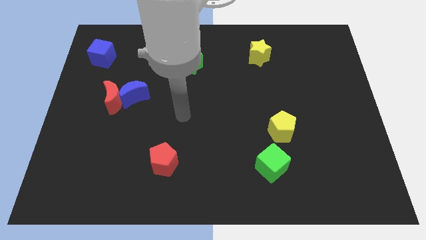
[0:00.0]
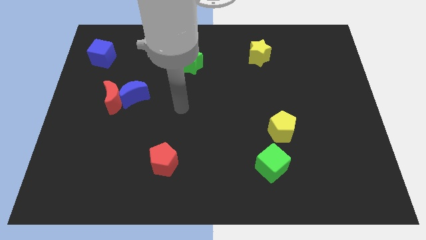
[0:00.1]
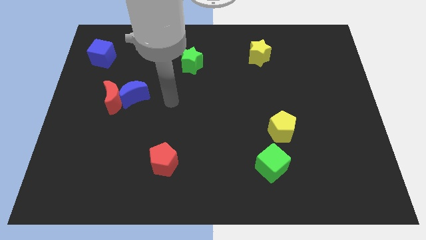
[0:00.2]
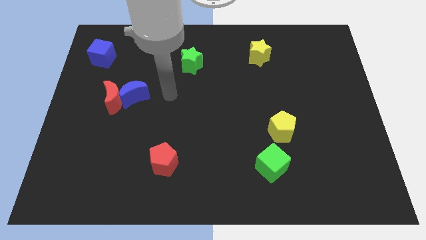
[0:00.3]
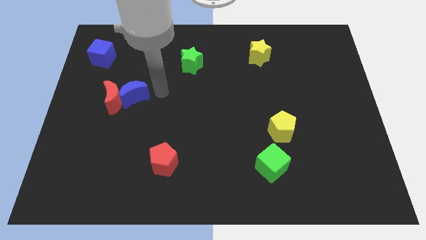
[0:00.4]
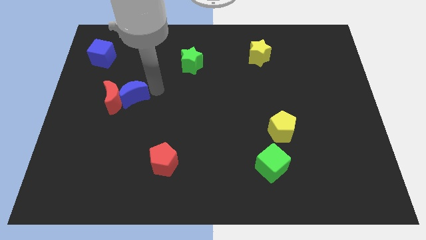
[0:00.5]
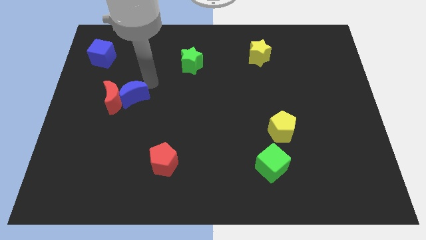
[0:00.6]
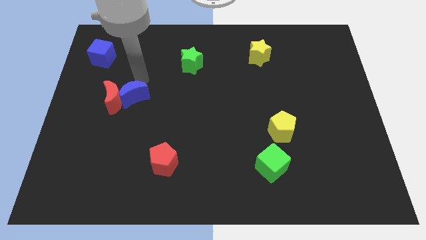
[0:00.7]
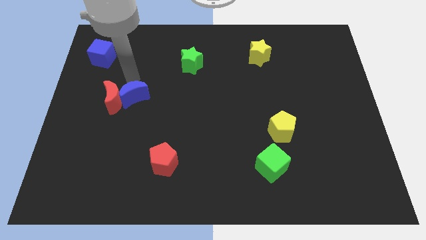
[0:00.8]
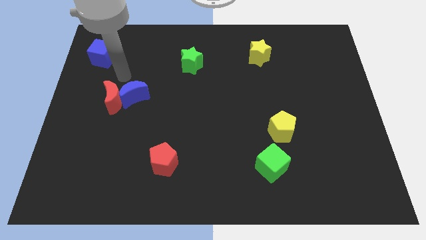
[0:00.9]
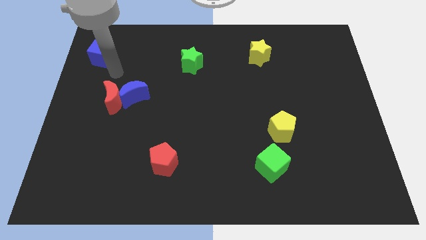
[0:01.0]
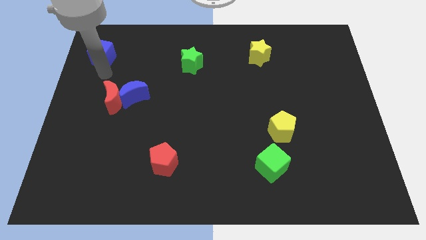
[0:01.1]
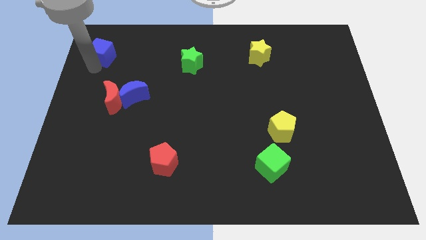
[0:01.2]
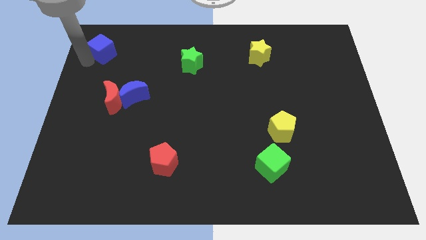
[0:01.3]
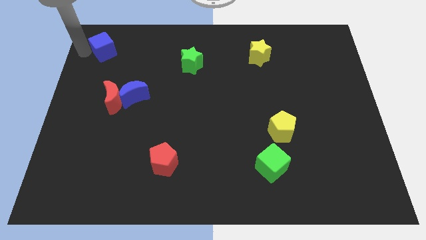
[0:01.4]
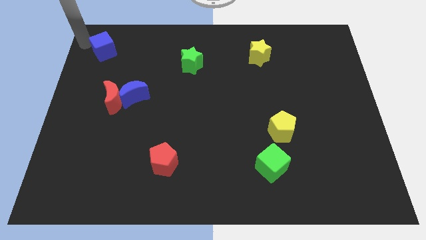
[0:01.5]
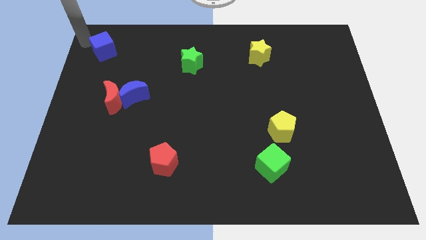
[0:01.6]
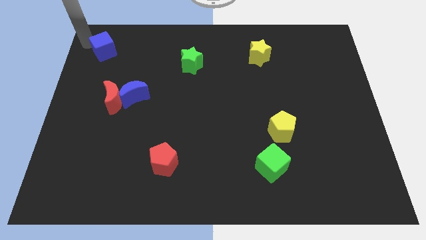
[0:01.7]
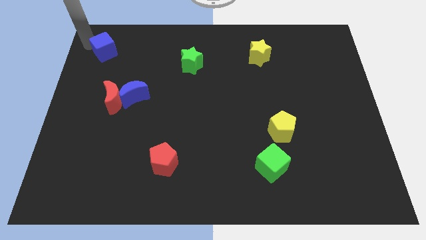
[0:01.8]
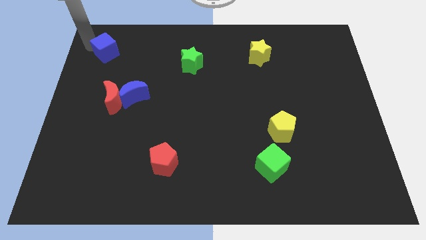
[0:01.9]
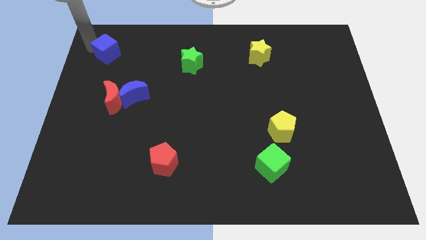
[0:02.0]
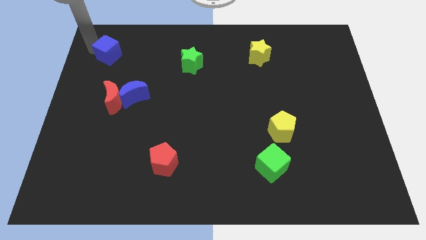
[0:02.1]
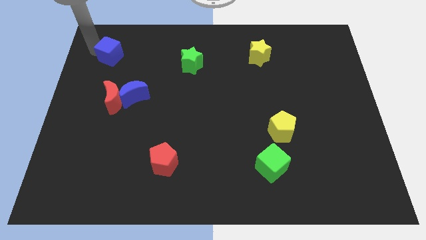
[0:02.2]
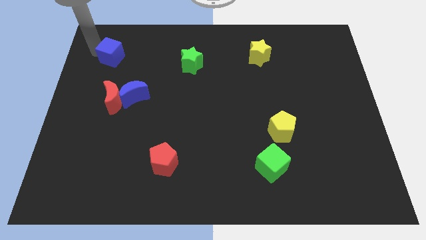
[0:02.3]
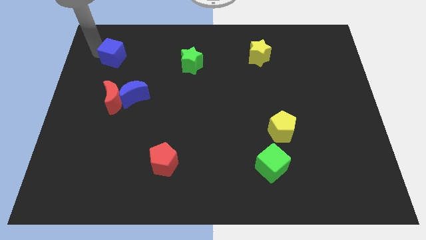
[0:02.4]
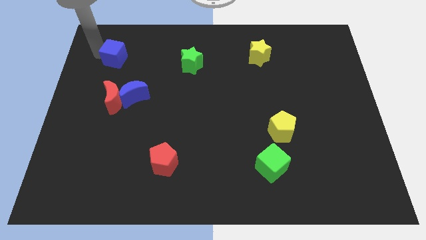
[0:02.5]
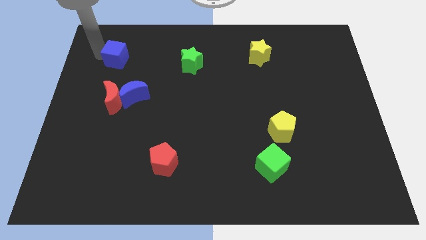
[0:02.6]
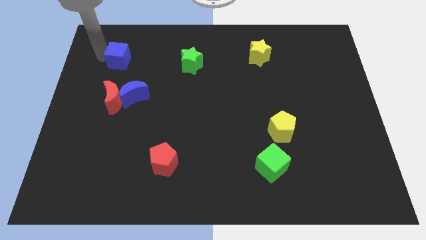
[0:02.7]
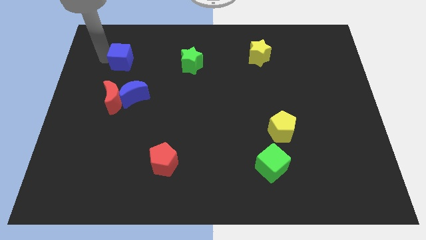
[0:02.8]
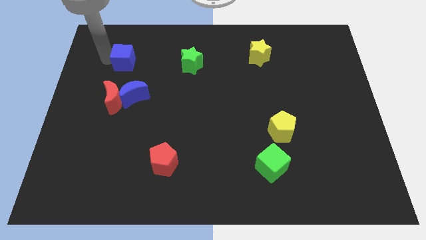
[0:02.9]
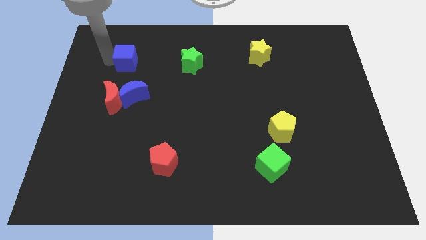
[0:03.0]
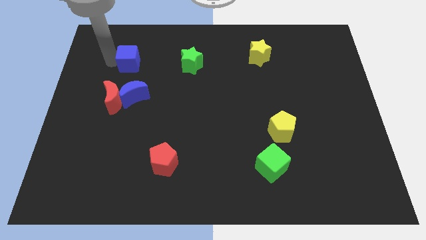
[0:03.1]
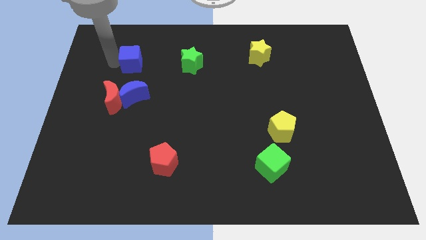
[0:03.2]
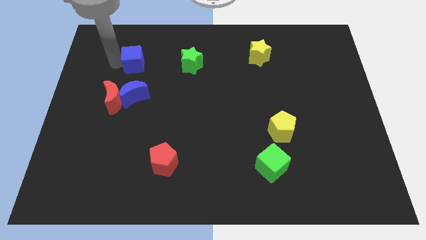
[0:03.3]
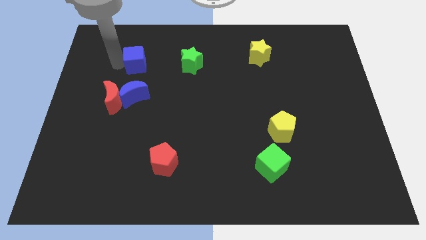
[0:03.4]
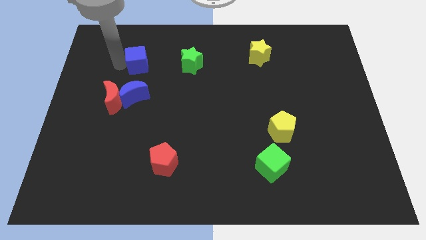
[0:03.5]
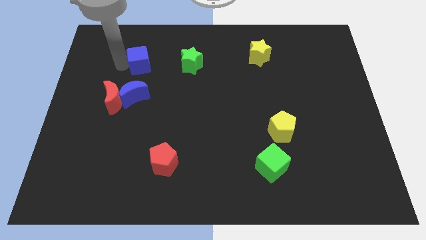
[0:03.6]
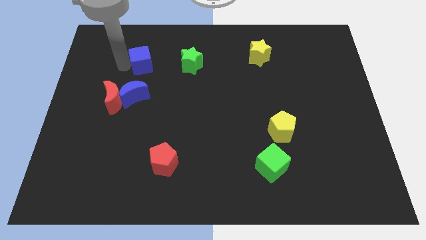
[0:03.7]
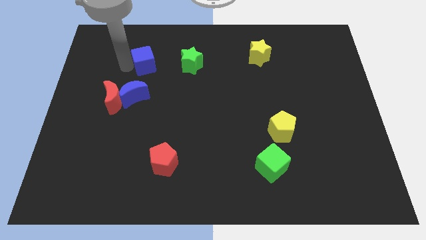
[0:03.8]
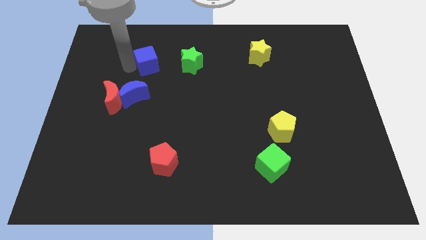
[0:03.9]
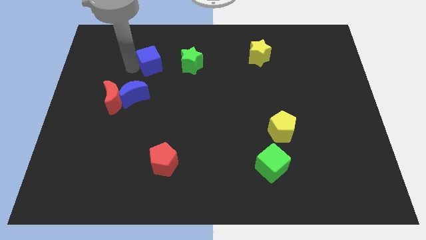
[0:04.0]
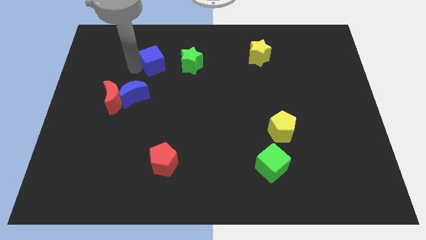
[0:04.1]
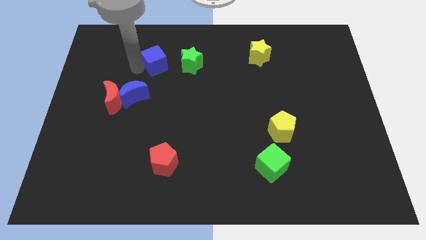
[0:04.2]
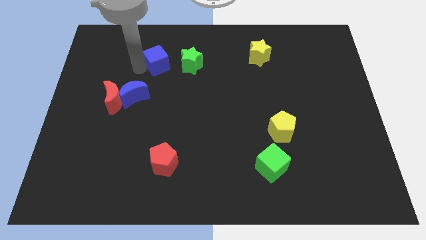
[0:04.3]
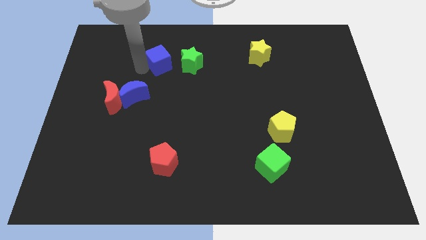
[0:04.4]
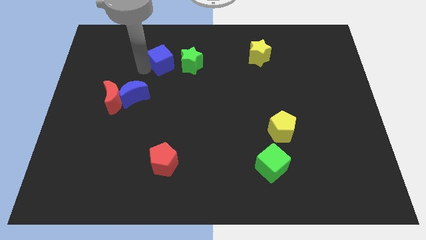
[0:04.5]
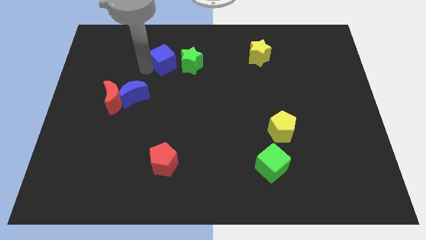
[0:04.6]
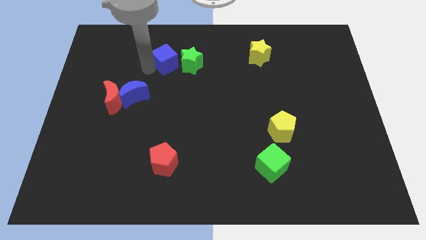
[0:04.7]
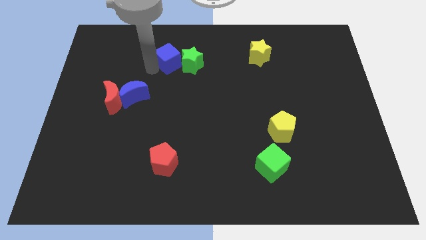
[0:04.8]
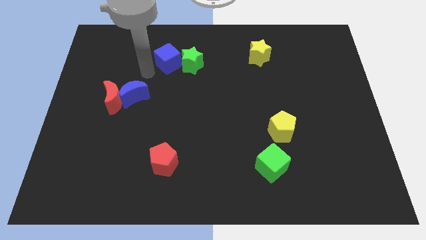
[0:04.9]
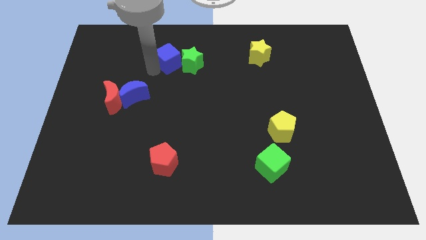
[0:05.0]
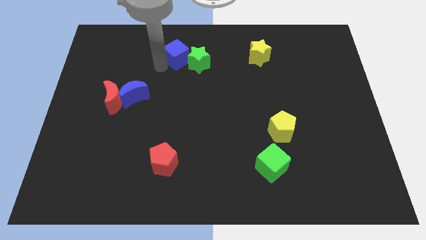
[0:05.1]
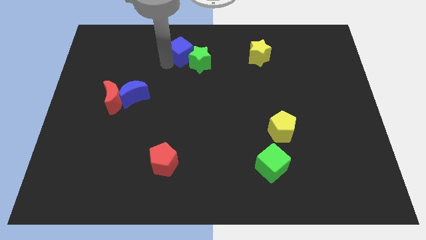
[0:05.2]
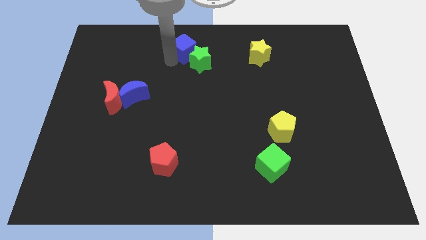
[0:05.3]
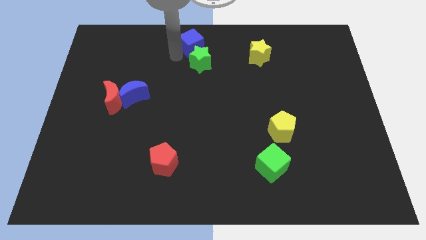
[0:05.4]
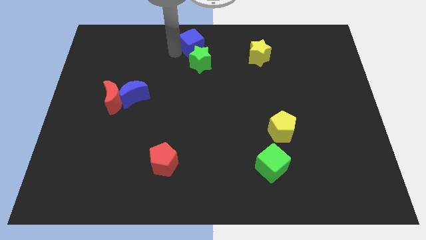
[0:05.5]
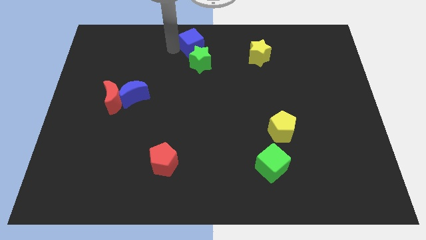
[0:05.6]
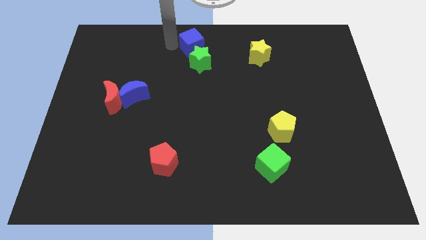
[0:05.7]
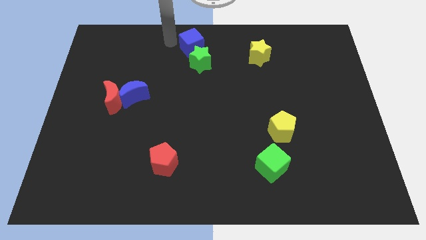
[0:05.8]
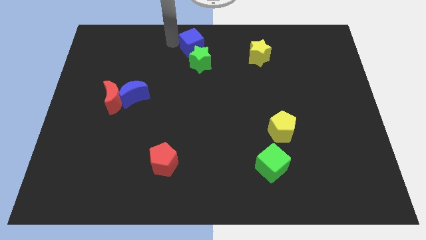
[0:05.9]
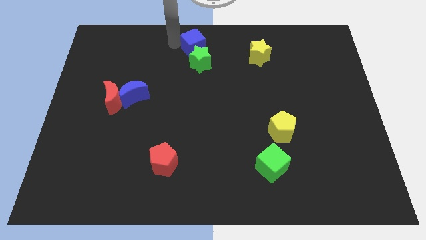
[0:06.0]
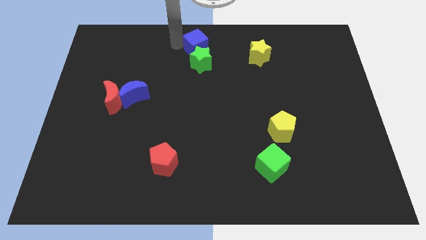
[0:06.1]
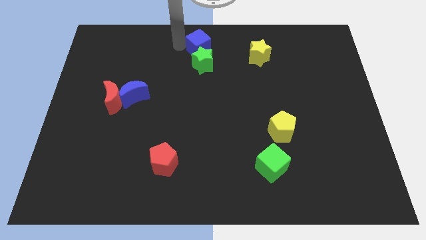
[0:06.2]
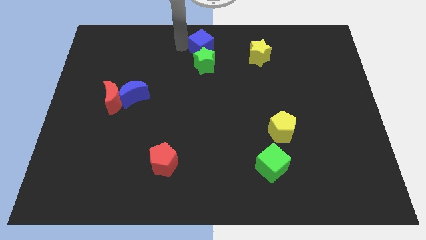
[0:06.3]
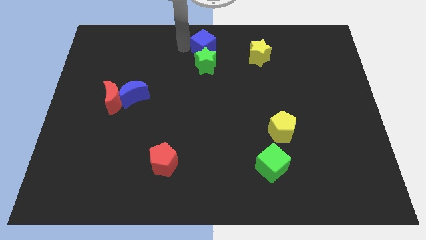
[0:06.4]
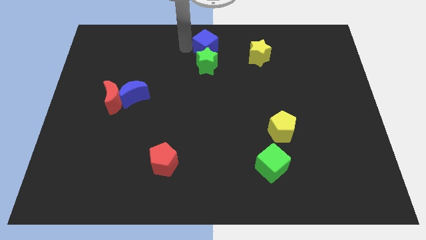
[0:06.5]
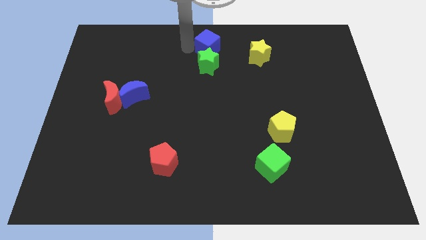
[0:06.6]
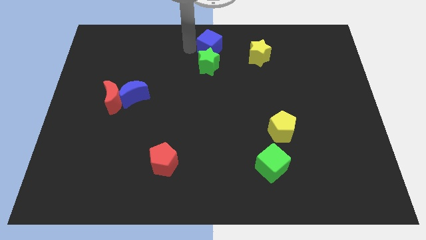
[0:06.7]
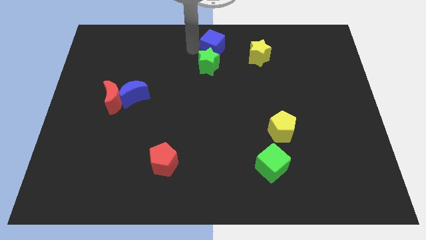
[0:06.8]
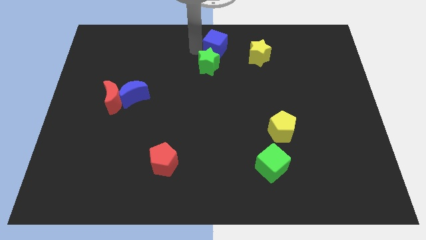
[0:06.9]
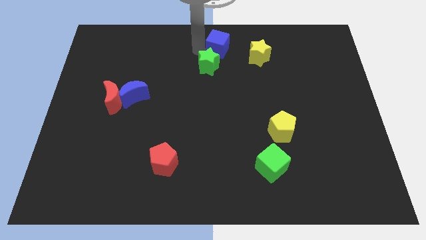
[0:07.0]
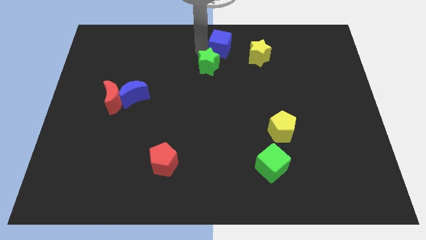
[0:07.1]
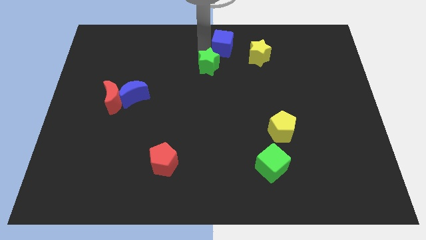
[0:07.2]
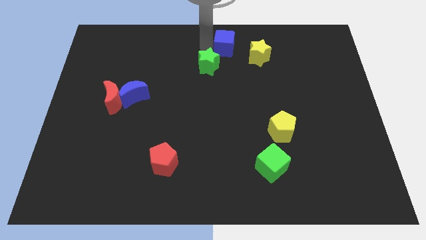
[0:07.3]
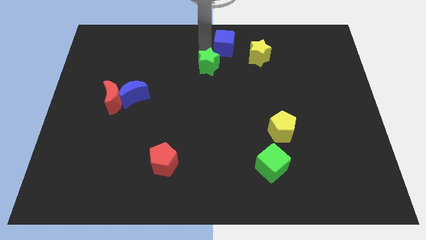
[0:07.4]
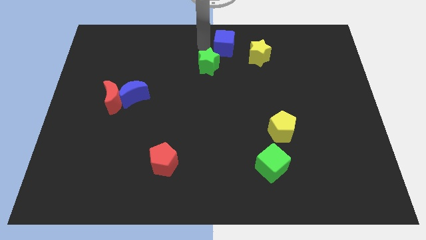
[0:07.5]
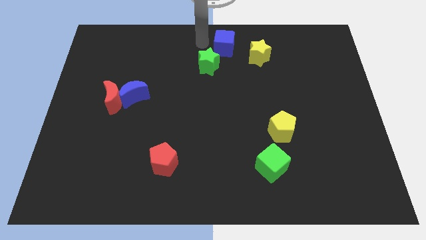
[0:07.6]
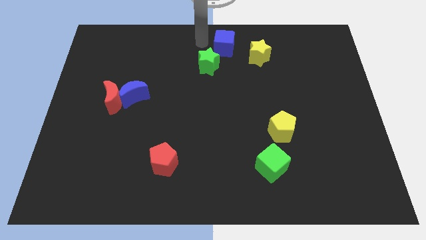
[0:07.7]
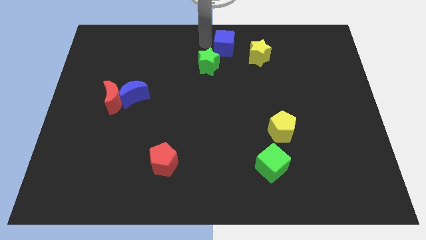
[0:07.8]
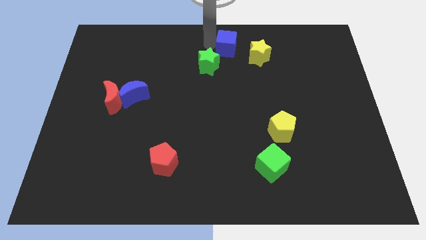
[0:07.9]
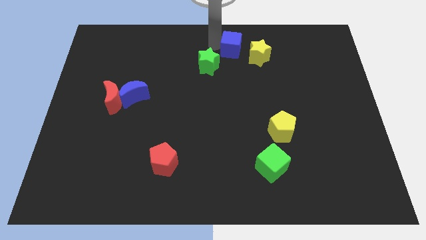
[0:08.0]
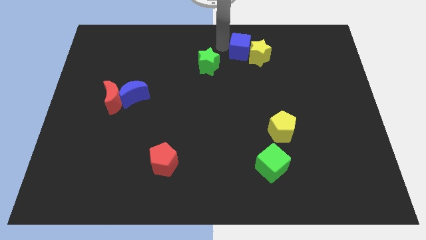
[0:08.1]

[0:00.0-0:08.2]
push the blue cube towards the yellow star
